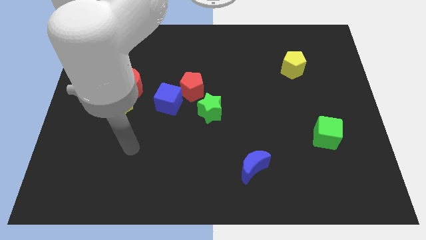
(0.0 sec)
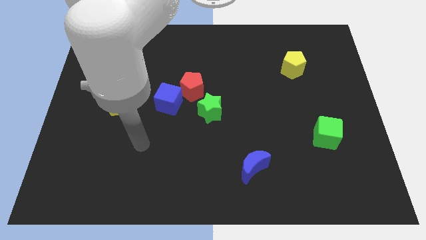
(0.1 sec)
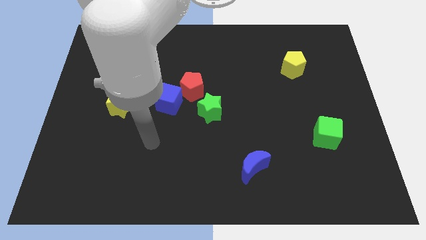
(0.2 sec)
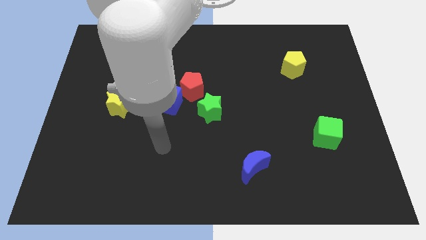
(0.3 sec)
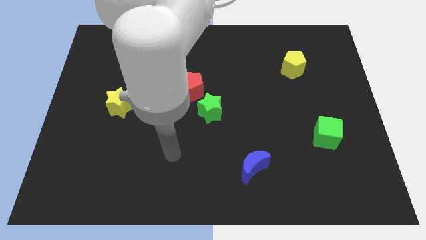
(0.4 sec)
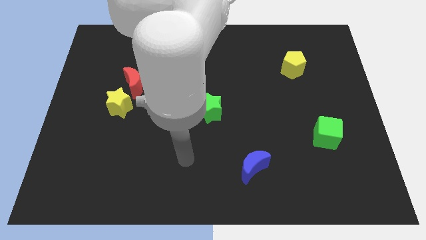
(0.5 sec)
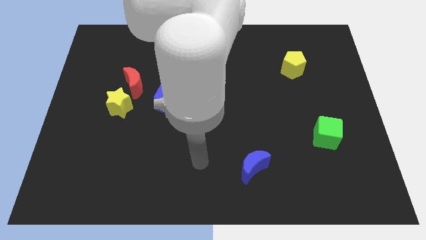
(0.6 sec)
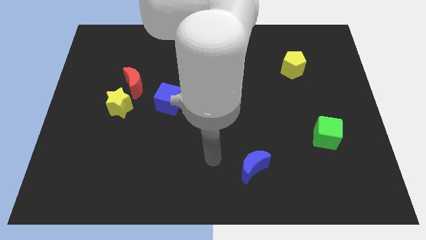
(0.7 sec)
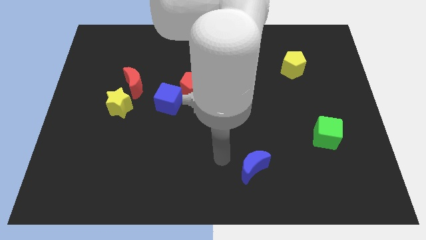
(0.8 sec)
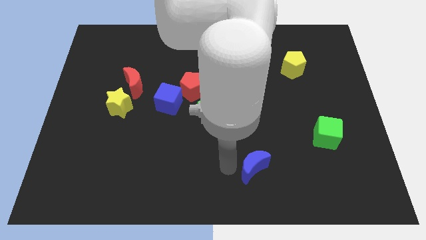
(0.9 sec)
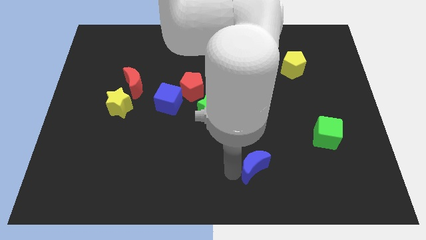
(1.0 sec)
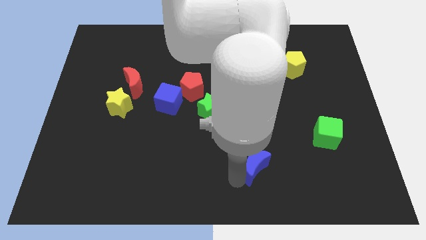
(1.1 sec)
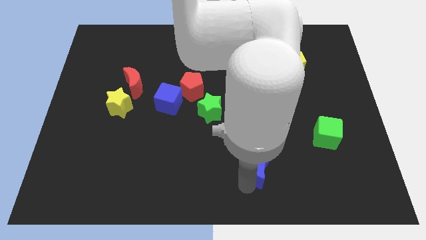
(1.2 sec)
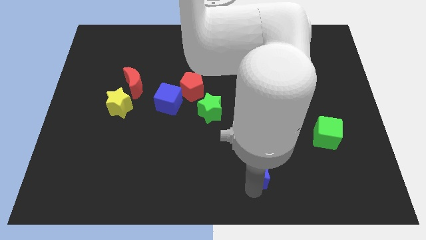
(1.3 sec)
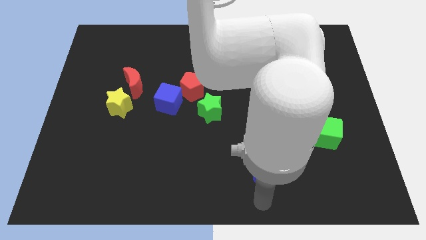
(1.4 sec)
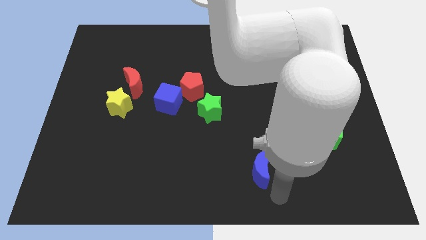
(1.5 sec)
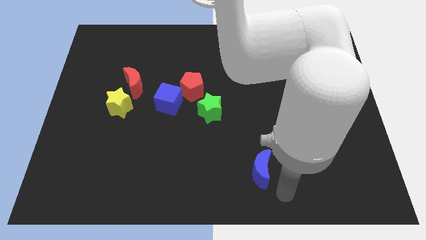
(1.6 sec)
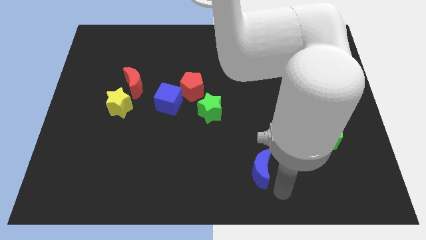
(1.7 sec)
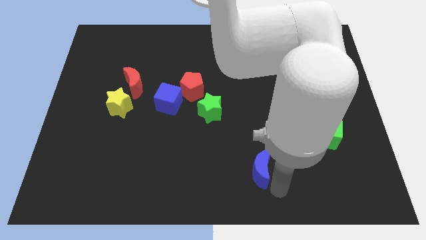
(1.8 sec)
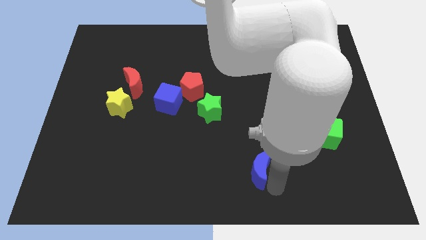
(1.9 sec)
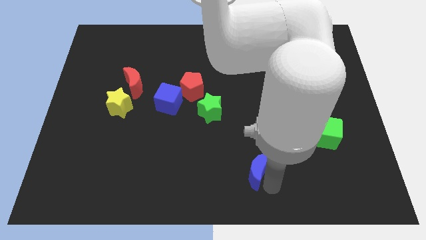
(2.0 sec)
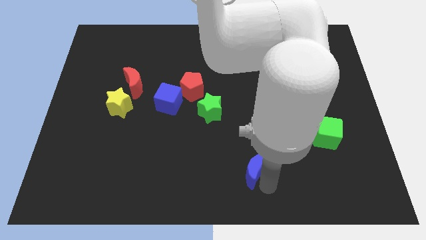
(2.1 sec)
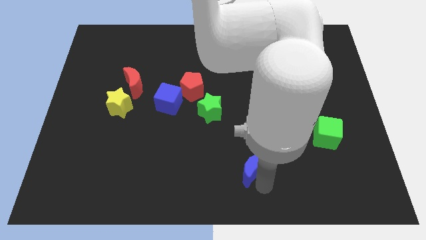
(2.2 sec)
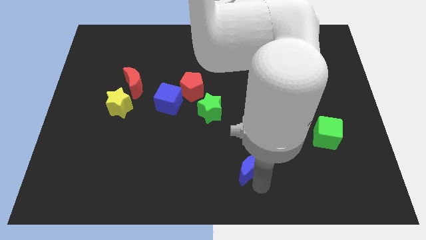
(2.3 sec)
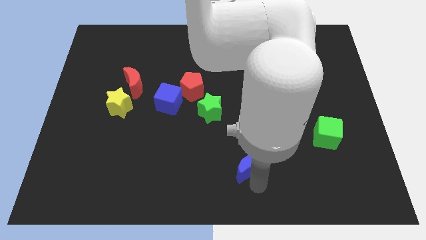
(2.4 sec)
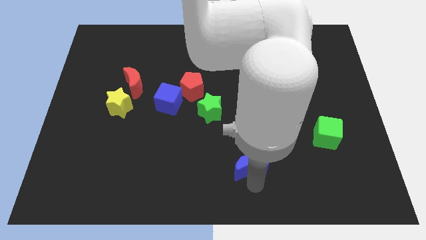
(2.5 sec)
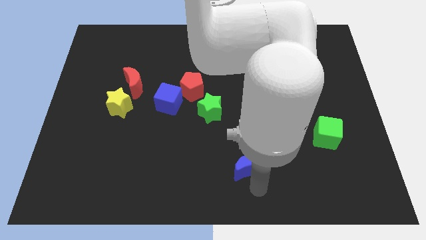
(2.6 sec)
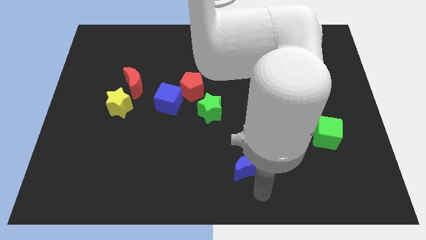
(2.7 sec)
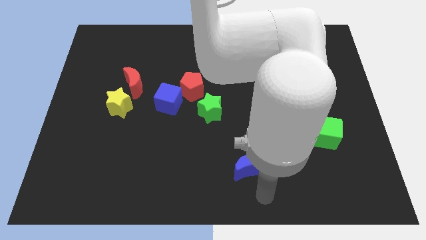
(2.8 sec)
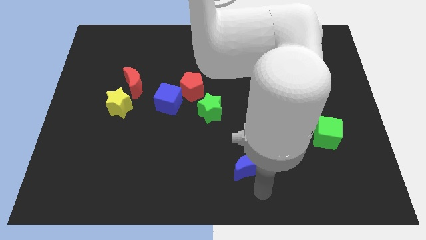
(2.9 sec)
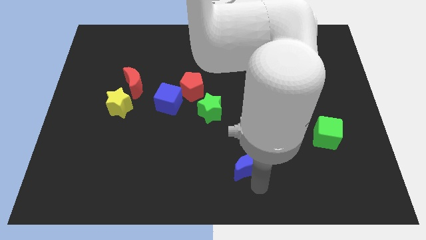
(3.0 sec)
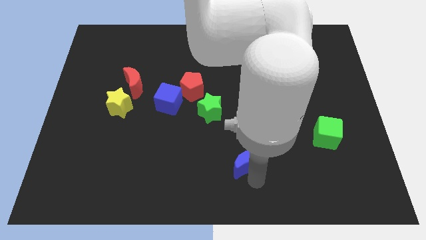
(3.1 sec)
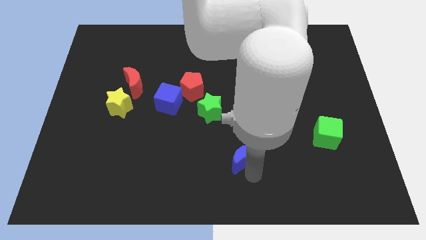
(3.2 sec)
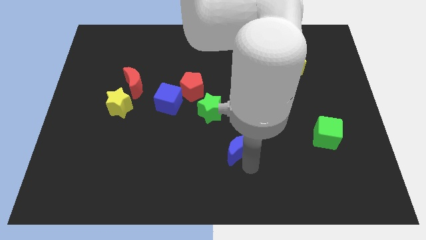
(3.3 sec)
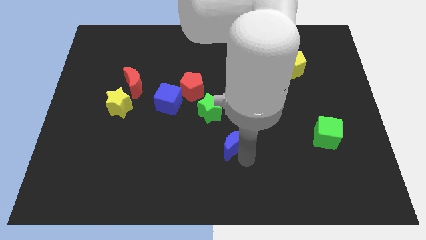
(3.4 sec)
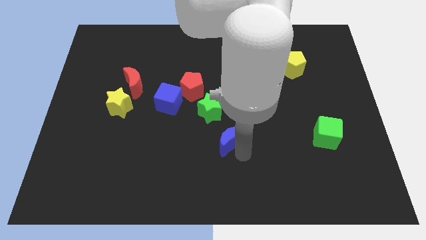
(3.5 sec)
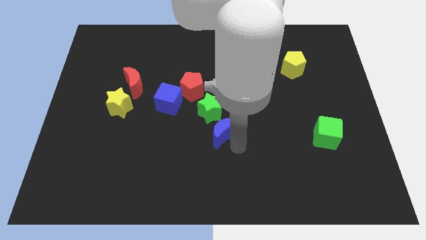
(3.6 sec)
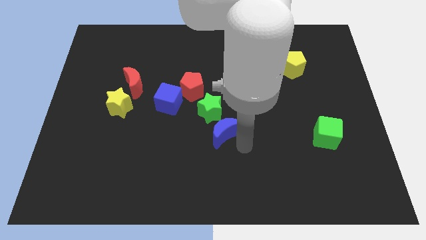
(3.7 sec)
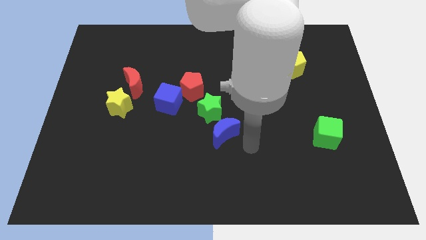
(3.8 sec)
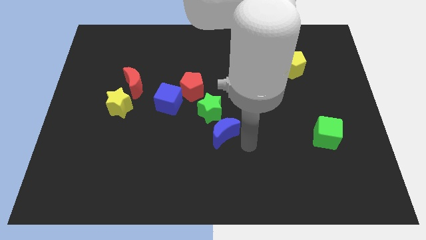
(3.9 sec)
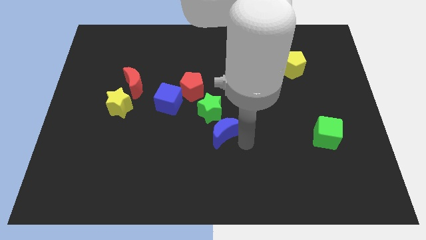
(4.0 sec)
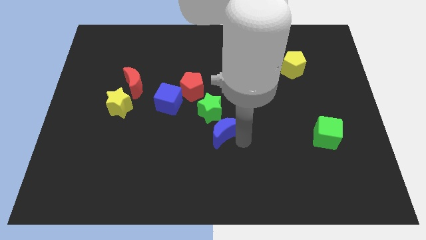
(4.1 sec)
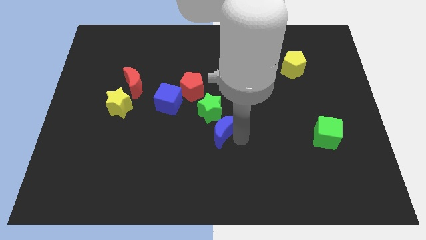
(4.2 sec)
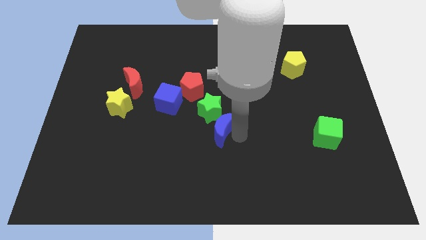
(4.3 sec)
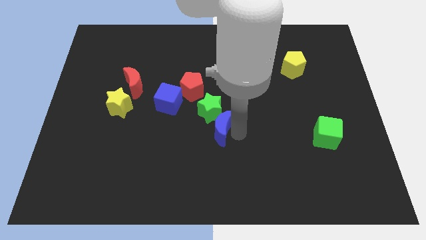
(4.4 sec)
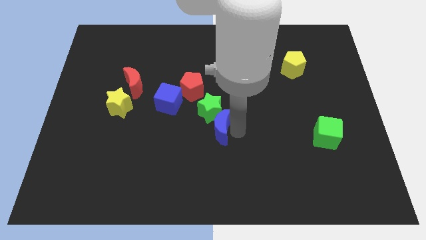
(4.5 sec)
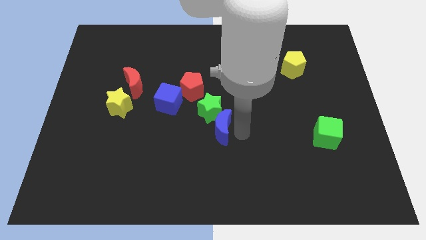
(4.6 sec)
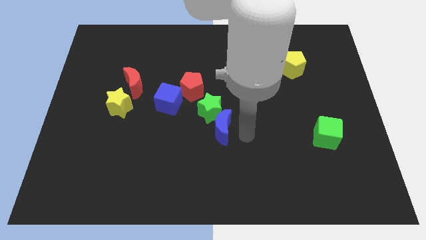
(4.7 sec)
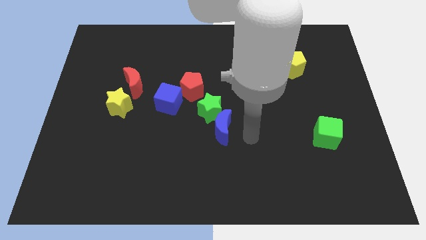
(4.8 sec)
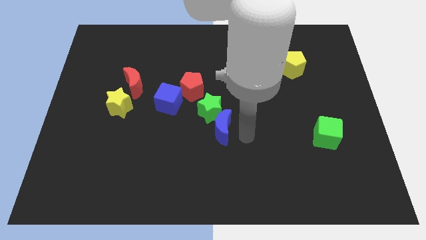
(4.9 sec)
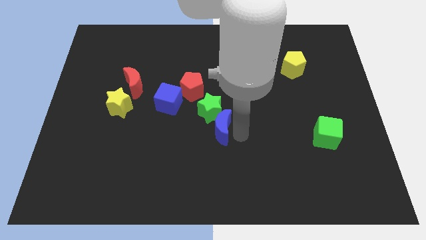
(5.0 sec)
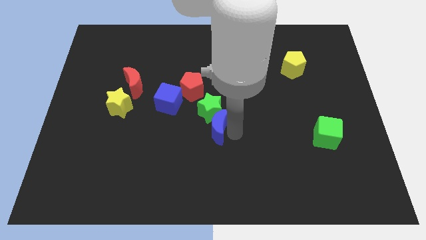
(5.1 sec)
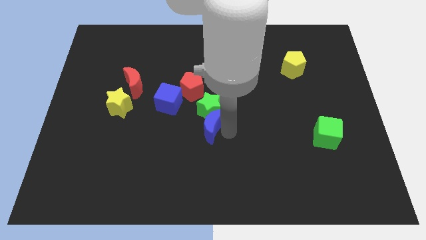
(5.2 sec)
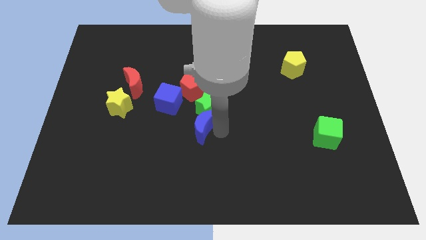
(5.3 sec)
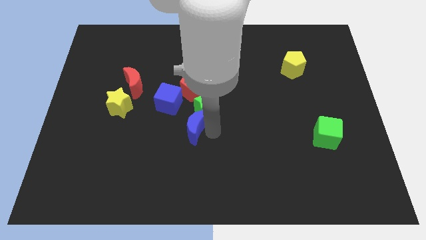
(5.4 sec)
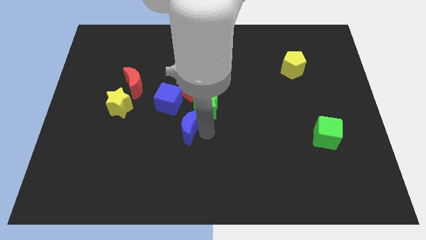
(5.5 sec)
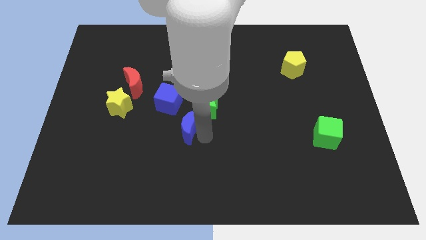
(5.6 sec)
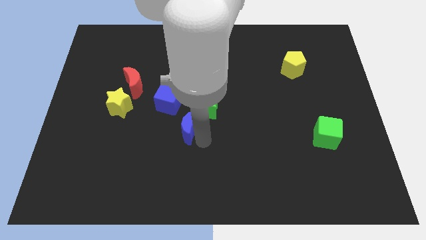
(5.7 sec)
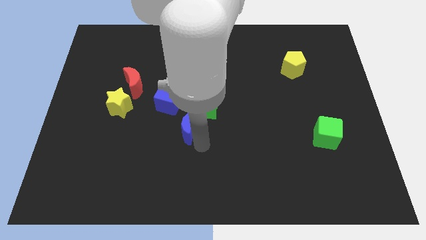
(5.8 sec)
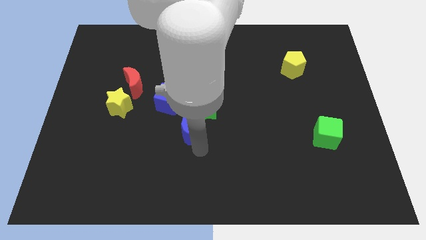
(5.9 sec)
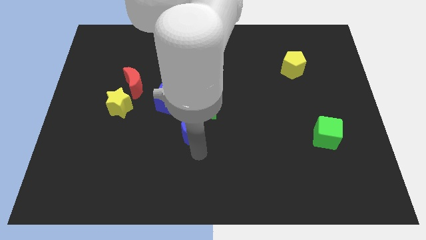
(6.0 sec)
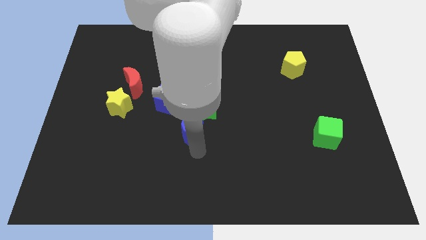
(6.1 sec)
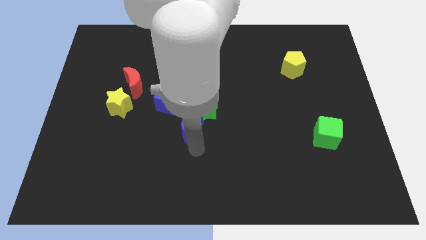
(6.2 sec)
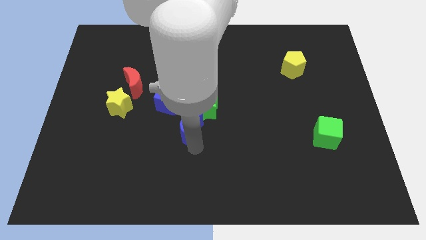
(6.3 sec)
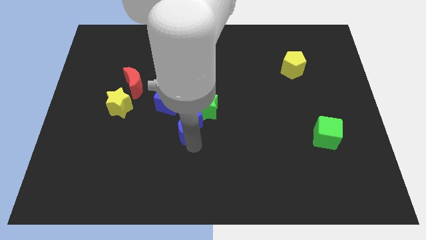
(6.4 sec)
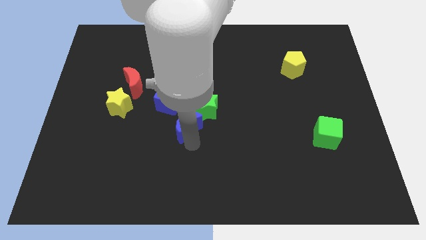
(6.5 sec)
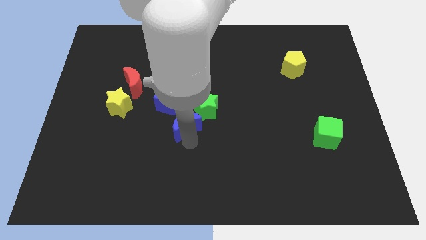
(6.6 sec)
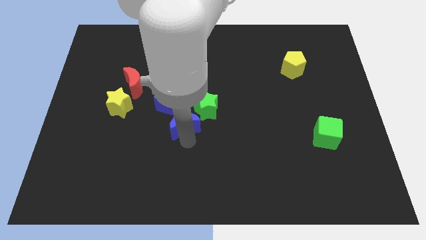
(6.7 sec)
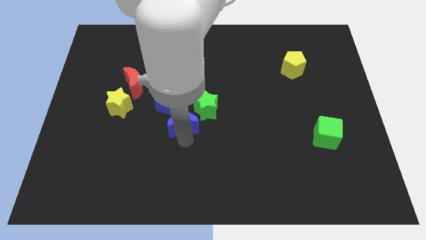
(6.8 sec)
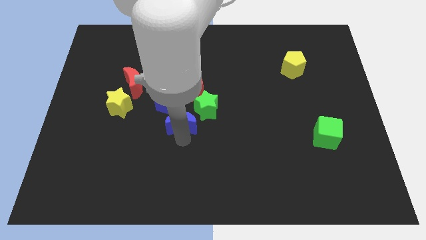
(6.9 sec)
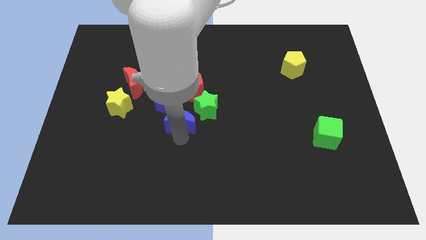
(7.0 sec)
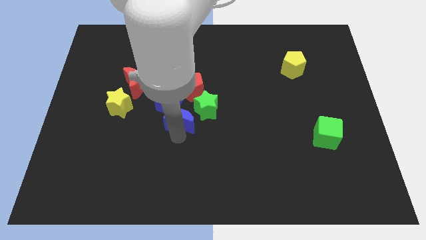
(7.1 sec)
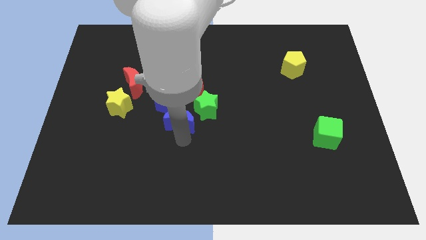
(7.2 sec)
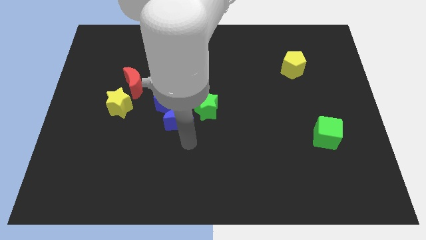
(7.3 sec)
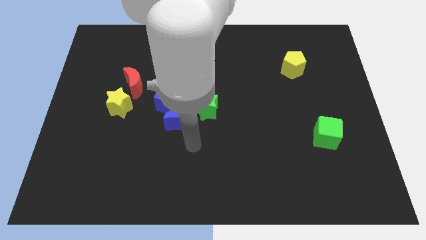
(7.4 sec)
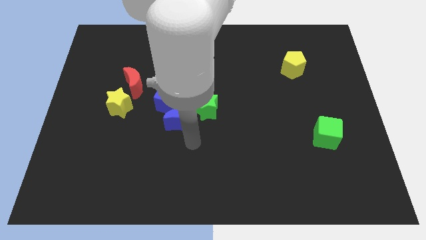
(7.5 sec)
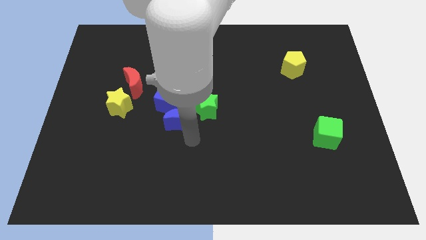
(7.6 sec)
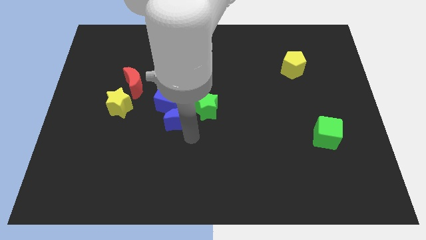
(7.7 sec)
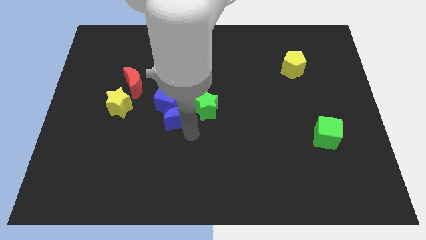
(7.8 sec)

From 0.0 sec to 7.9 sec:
slide the blue moon next to the blue cube

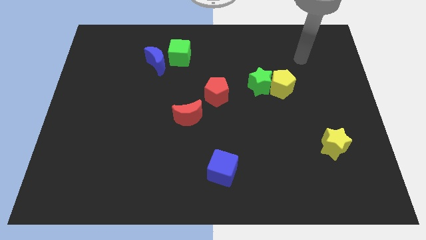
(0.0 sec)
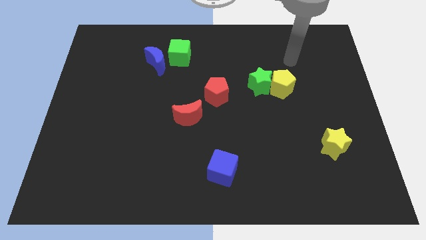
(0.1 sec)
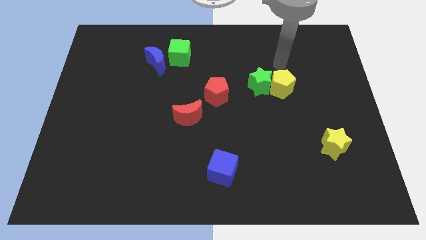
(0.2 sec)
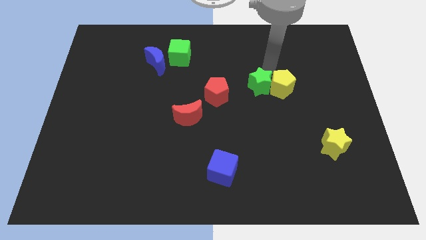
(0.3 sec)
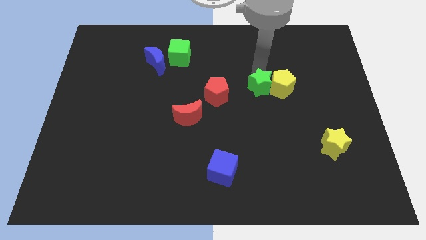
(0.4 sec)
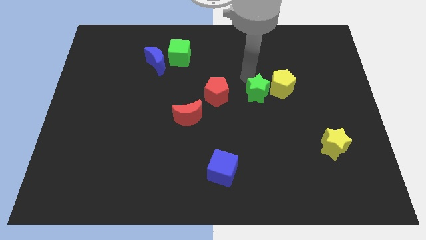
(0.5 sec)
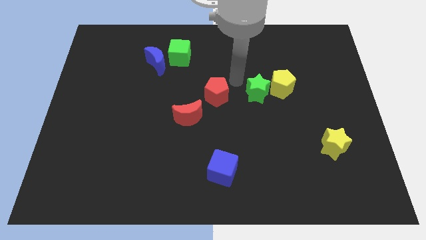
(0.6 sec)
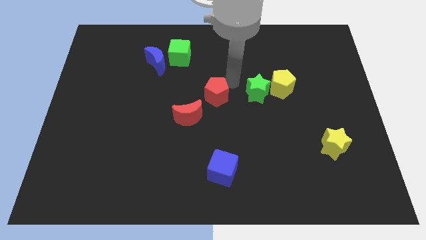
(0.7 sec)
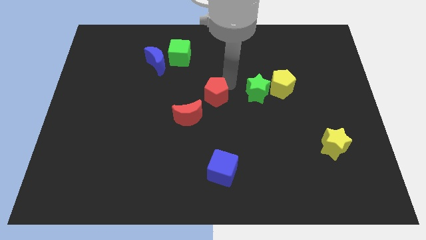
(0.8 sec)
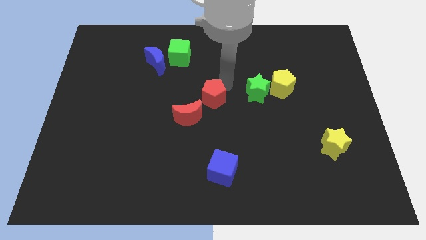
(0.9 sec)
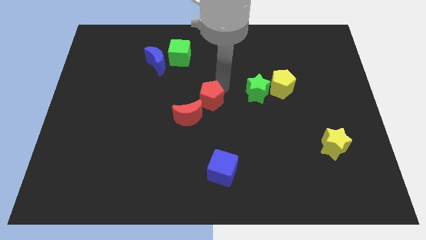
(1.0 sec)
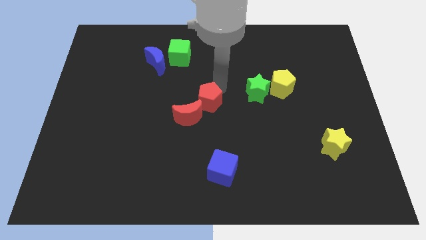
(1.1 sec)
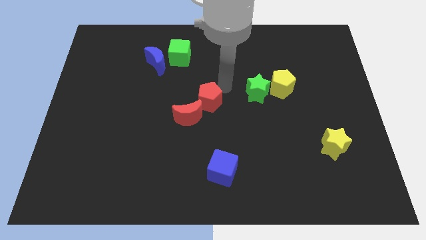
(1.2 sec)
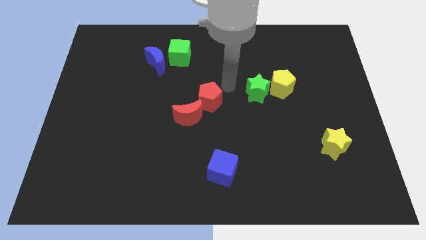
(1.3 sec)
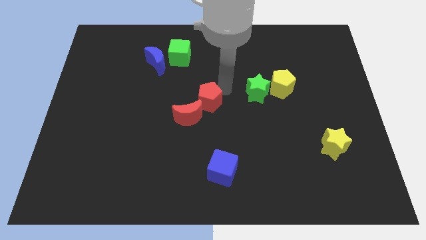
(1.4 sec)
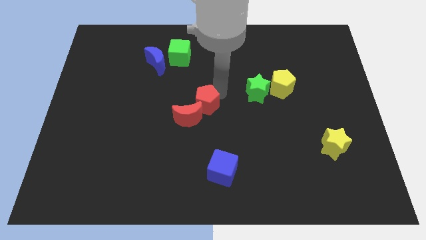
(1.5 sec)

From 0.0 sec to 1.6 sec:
push the red pentagon next to the red moon
